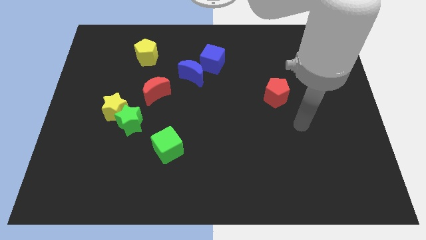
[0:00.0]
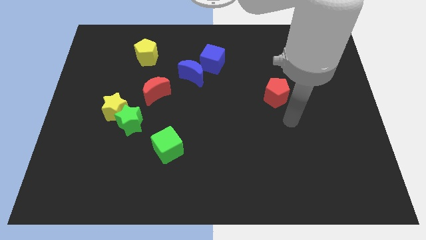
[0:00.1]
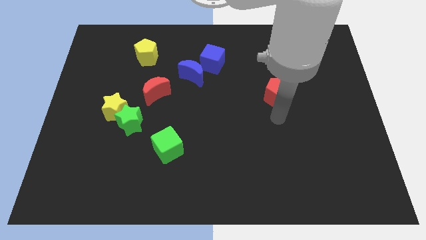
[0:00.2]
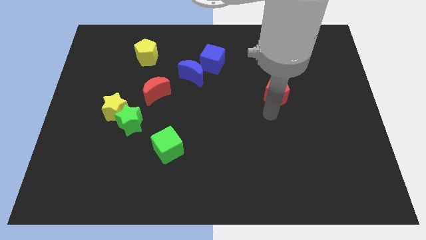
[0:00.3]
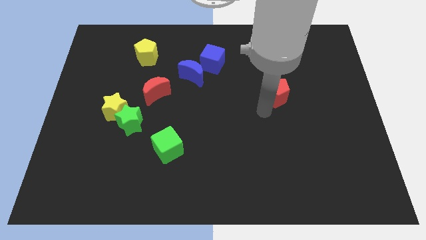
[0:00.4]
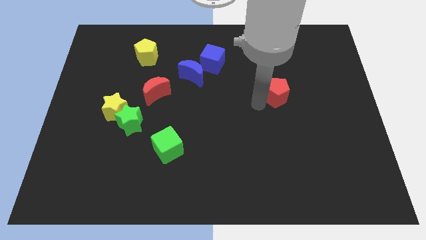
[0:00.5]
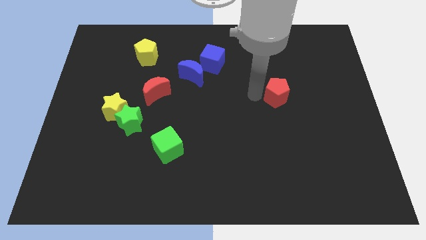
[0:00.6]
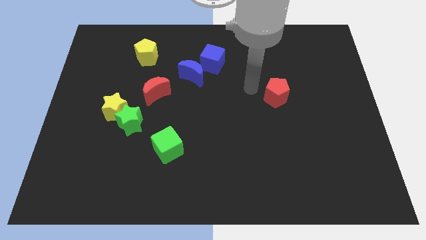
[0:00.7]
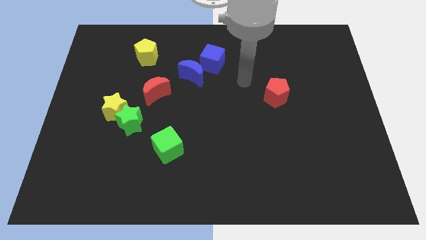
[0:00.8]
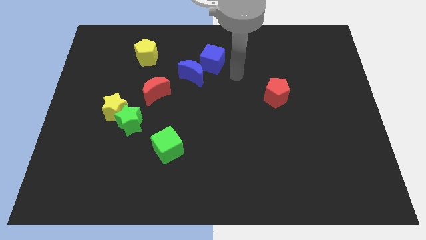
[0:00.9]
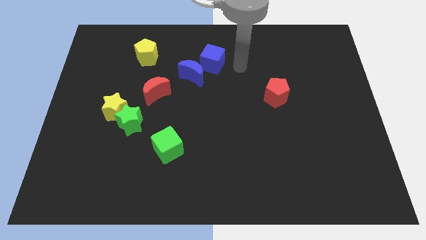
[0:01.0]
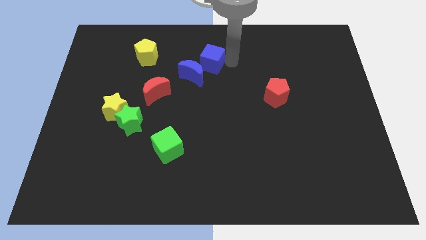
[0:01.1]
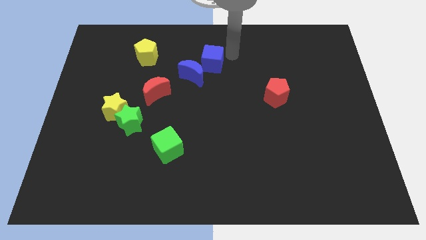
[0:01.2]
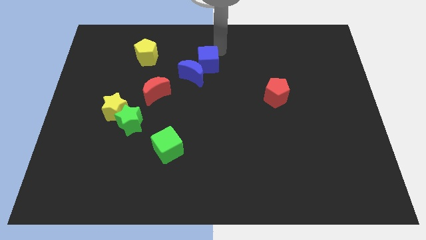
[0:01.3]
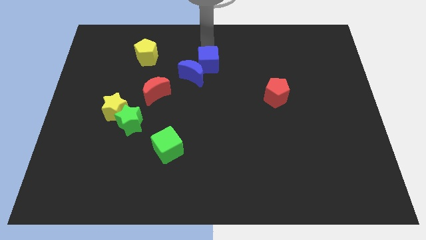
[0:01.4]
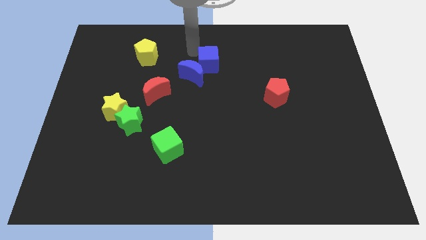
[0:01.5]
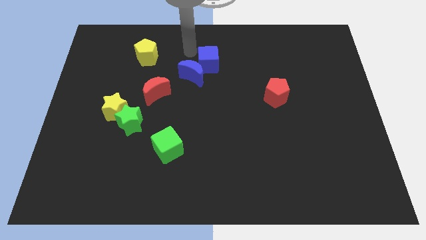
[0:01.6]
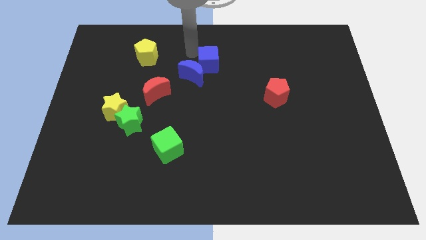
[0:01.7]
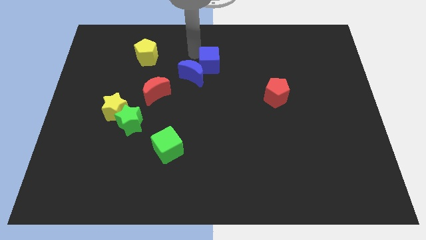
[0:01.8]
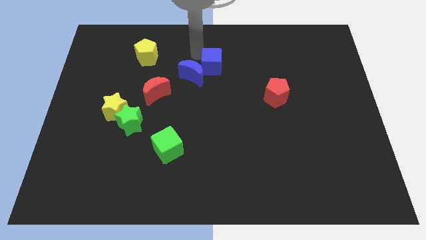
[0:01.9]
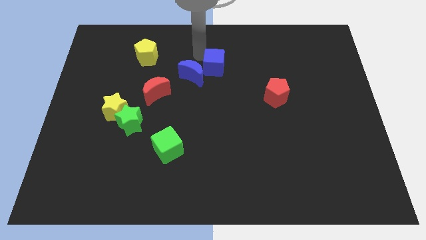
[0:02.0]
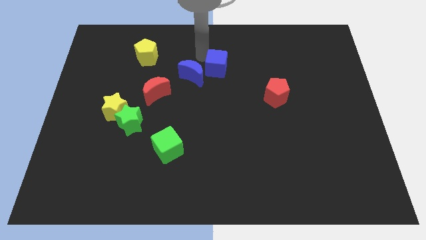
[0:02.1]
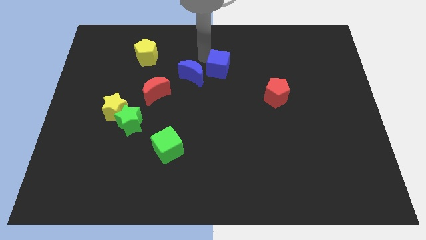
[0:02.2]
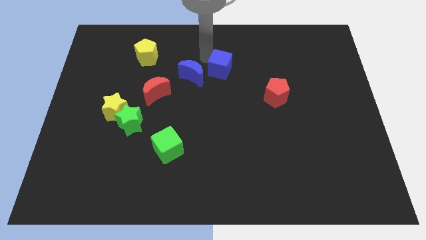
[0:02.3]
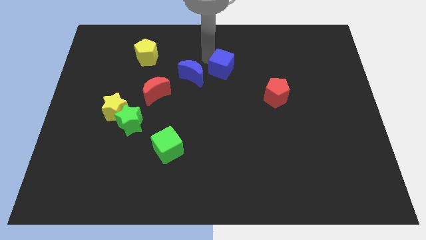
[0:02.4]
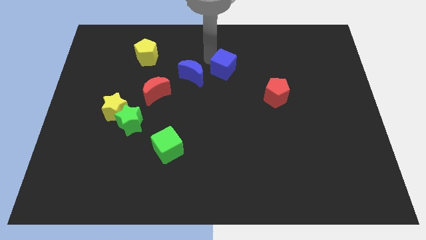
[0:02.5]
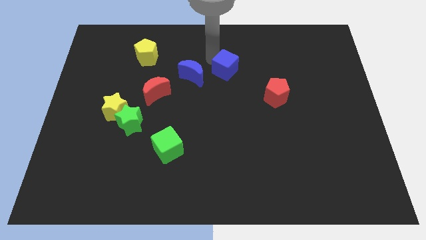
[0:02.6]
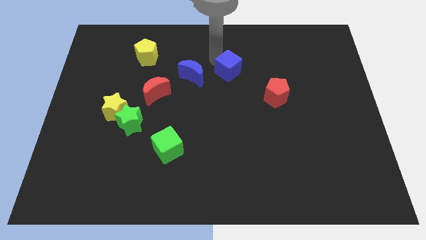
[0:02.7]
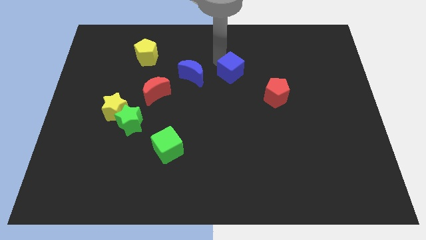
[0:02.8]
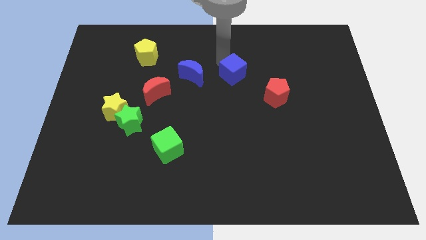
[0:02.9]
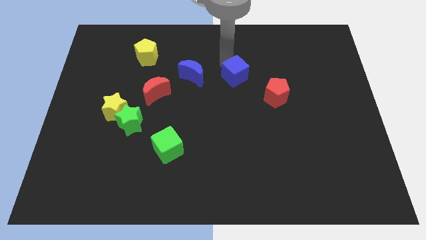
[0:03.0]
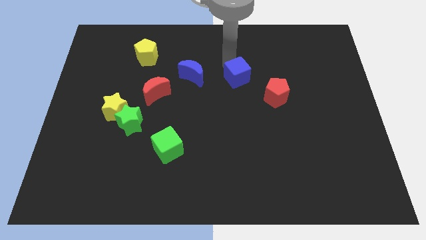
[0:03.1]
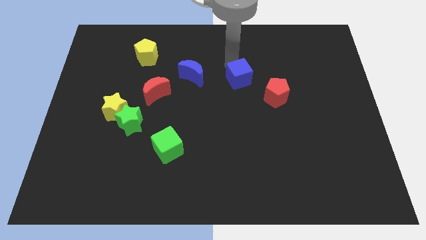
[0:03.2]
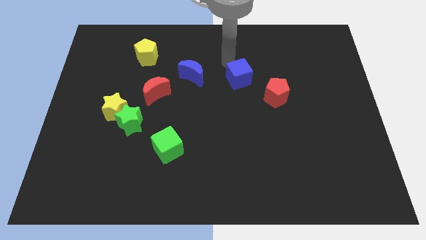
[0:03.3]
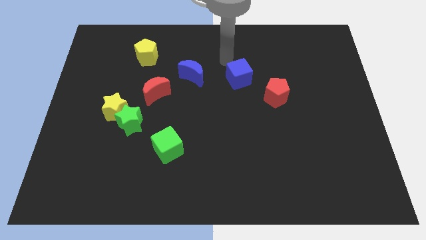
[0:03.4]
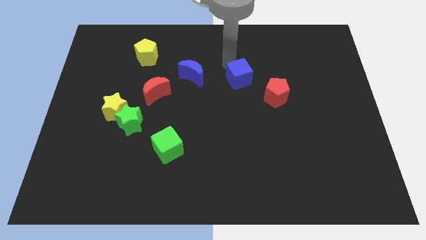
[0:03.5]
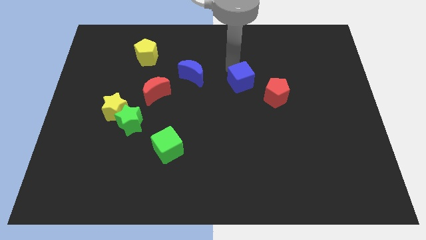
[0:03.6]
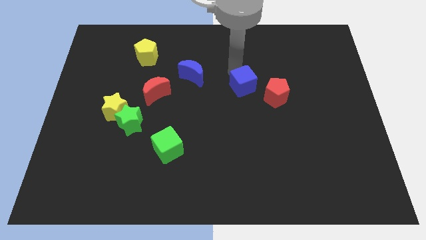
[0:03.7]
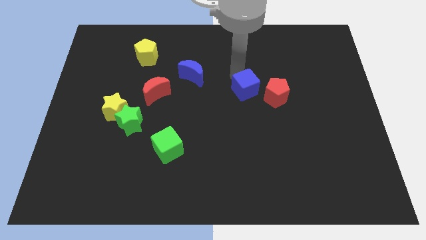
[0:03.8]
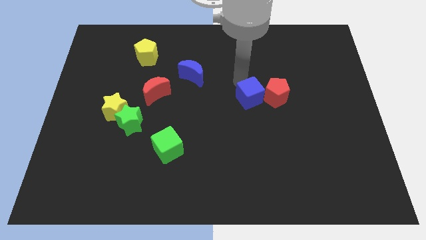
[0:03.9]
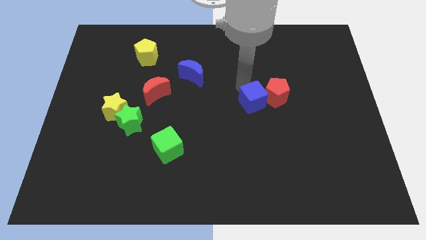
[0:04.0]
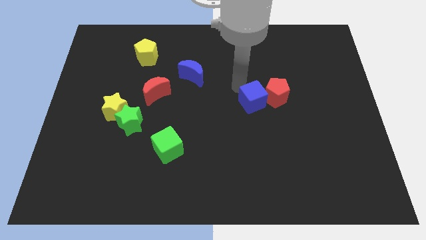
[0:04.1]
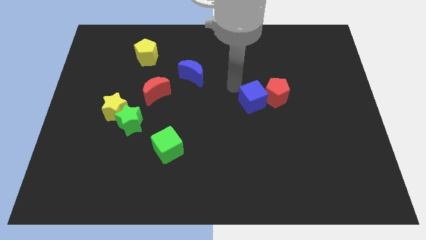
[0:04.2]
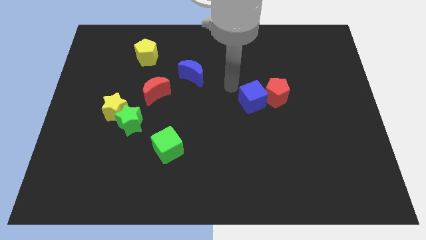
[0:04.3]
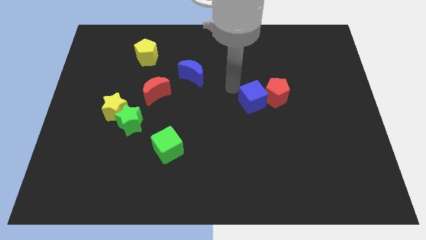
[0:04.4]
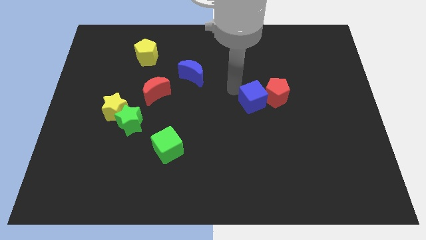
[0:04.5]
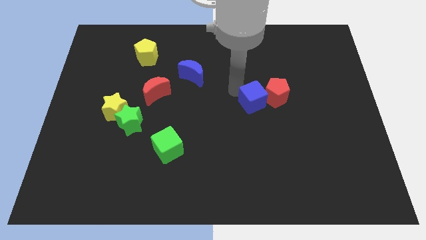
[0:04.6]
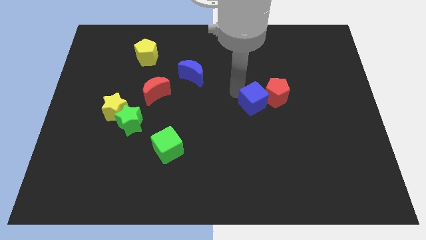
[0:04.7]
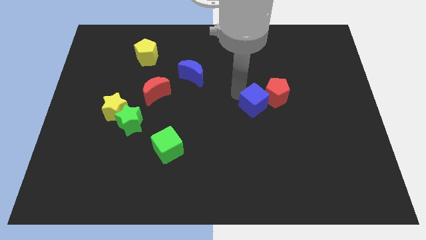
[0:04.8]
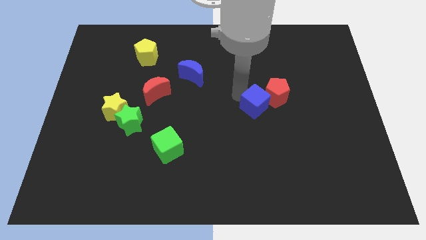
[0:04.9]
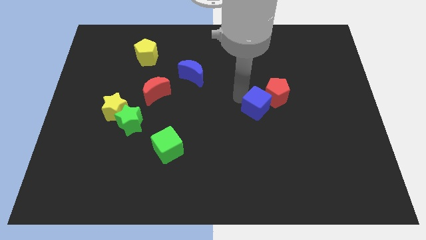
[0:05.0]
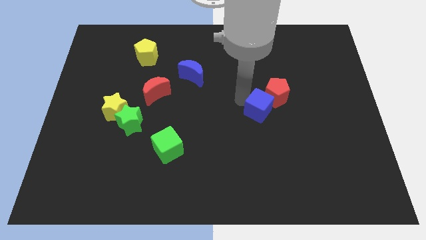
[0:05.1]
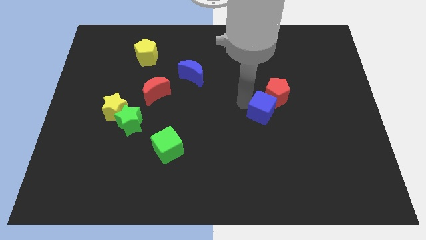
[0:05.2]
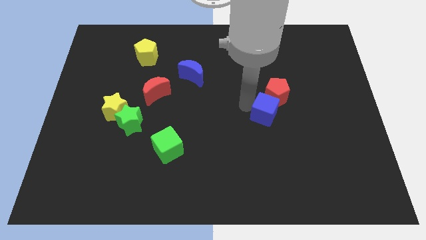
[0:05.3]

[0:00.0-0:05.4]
slide the blue cube down and to the right diagonally

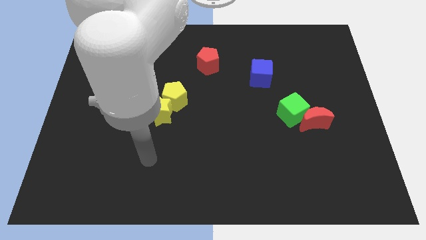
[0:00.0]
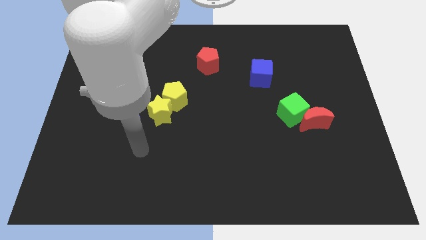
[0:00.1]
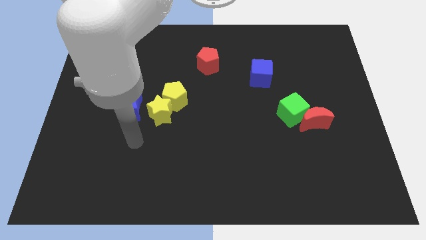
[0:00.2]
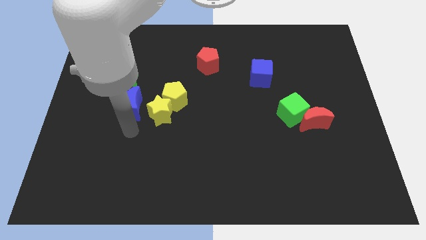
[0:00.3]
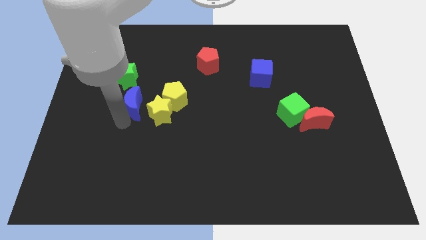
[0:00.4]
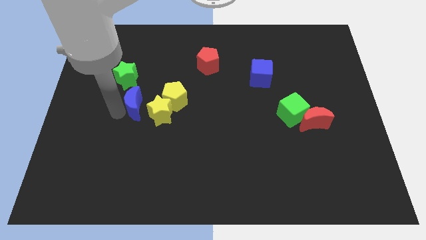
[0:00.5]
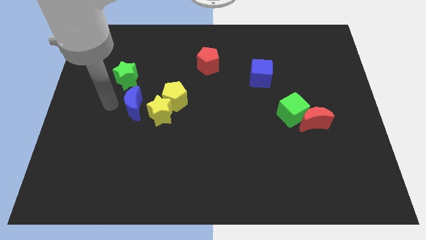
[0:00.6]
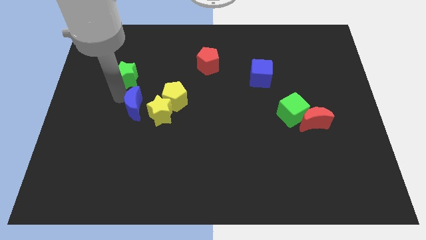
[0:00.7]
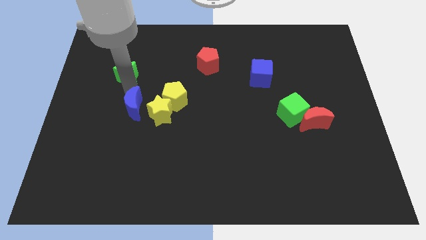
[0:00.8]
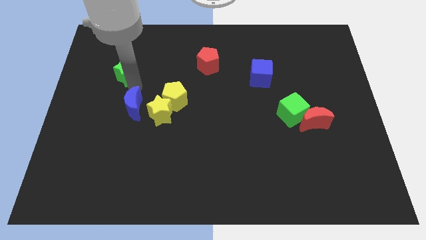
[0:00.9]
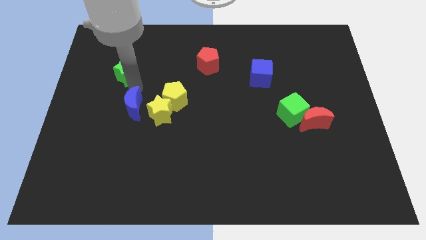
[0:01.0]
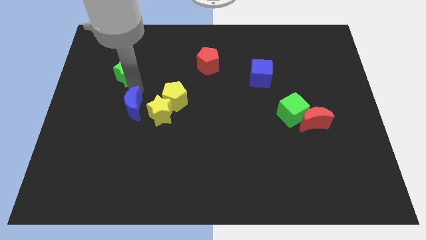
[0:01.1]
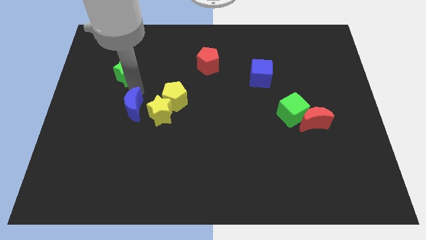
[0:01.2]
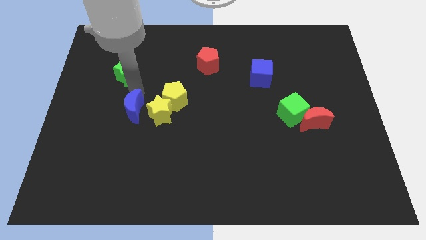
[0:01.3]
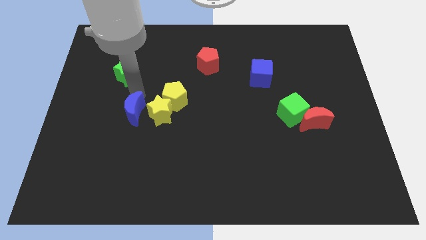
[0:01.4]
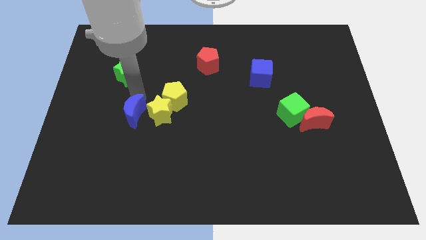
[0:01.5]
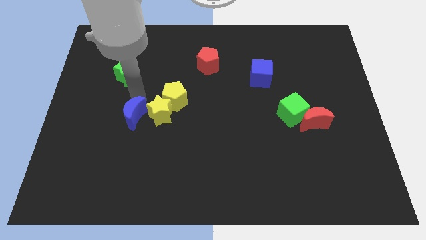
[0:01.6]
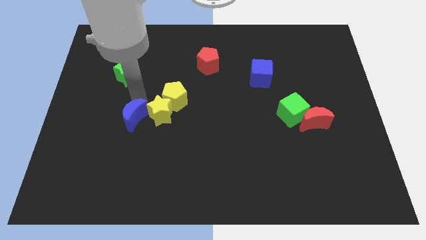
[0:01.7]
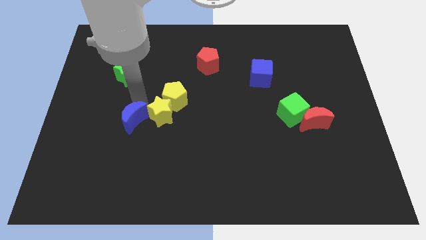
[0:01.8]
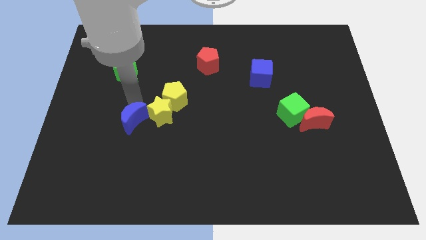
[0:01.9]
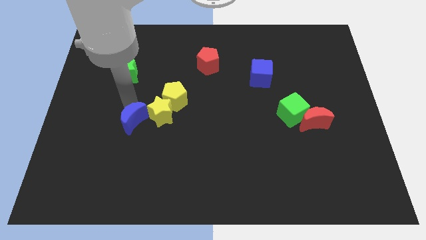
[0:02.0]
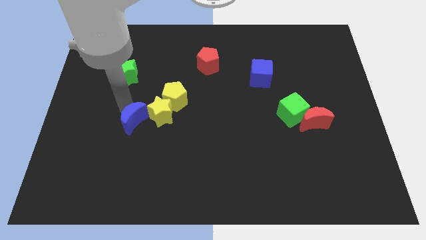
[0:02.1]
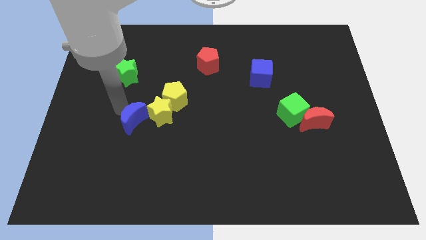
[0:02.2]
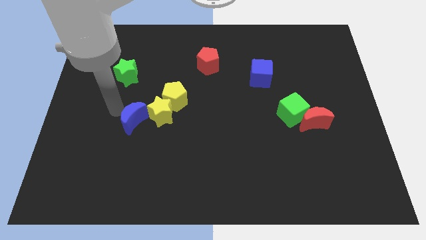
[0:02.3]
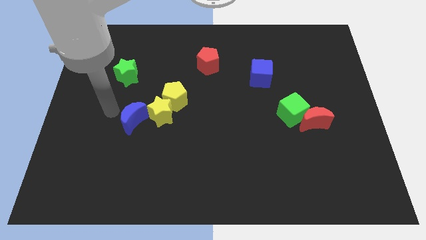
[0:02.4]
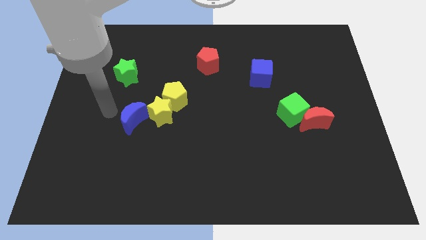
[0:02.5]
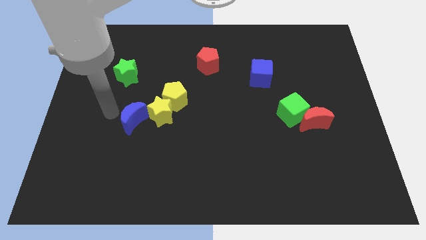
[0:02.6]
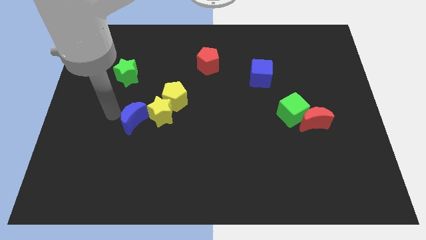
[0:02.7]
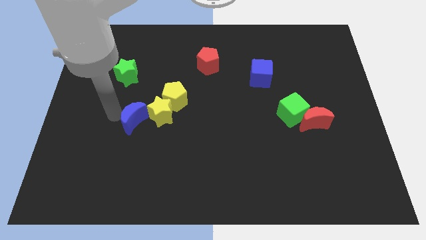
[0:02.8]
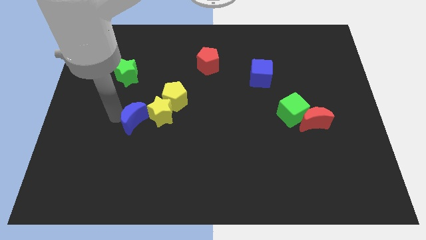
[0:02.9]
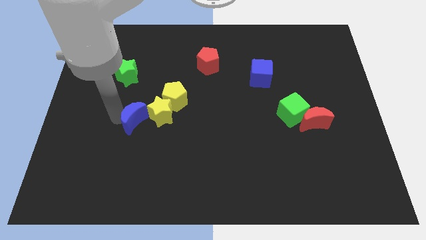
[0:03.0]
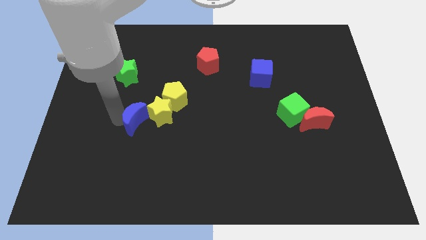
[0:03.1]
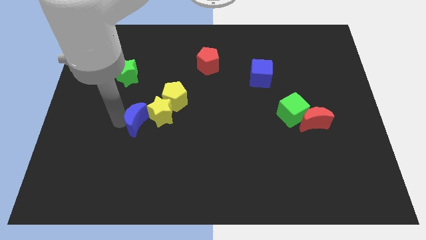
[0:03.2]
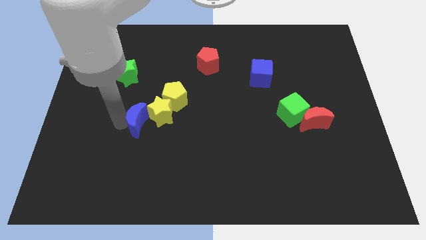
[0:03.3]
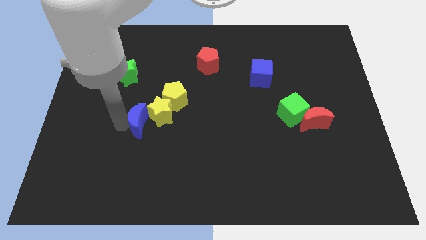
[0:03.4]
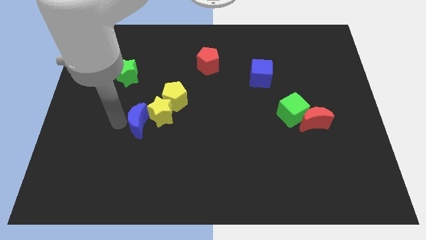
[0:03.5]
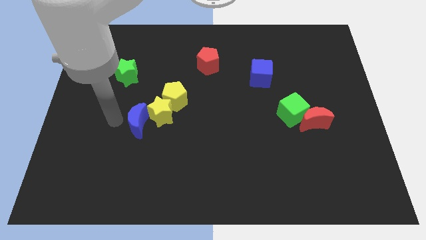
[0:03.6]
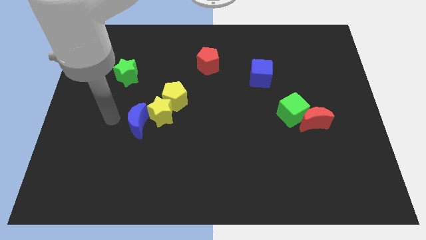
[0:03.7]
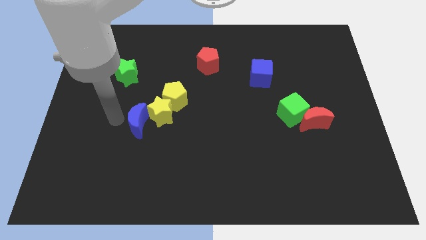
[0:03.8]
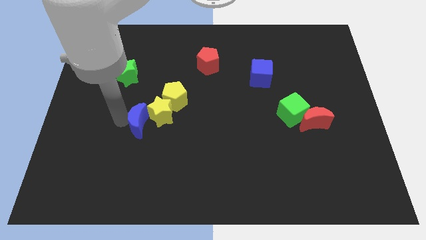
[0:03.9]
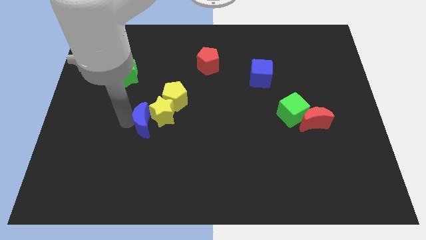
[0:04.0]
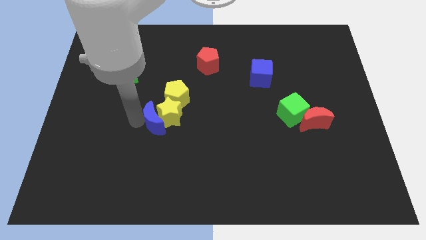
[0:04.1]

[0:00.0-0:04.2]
move the blue moon a bit down and to the right
